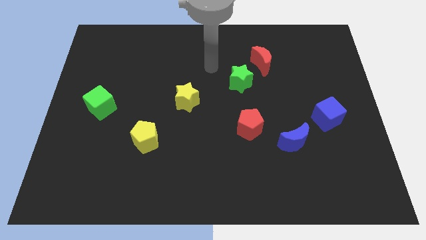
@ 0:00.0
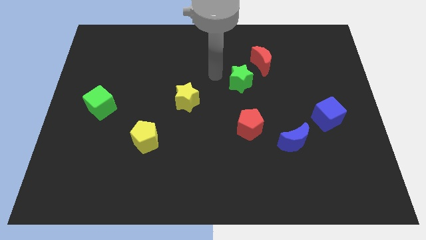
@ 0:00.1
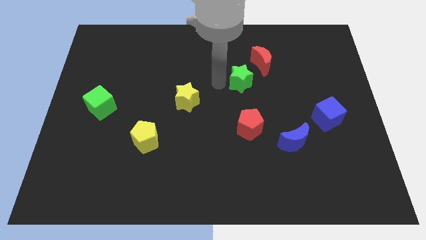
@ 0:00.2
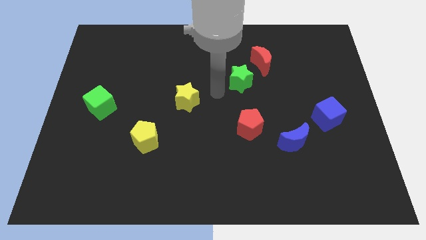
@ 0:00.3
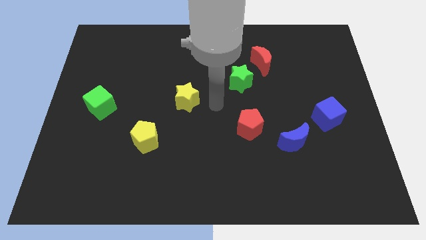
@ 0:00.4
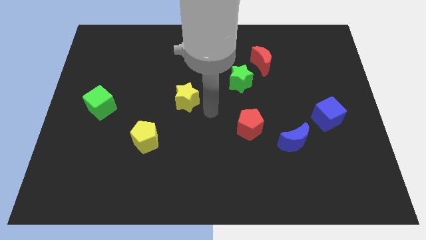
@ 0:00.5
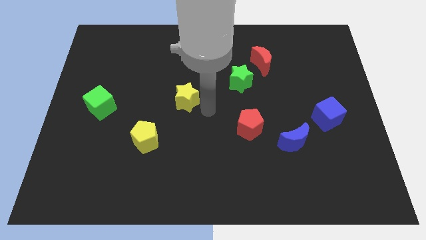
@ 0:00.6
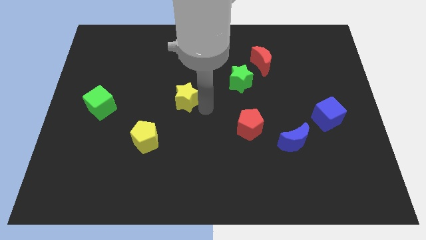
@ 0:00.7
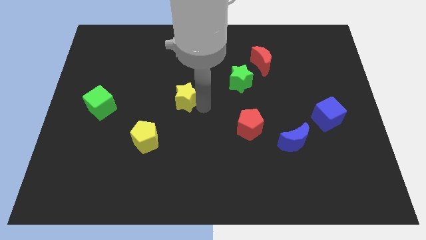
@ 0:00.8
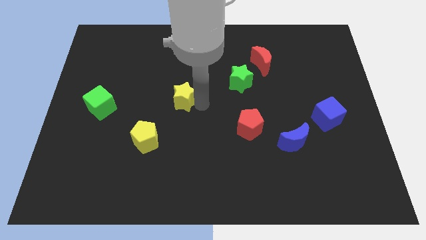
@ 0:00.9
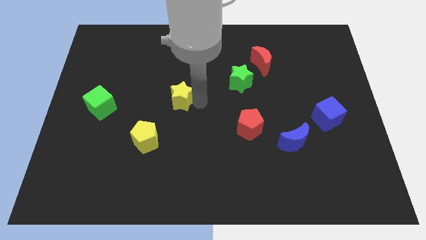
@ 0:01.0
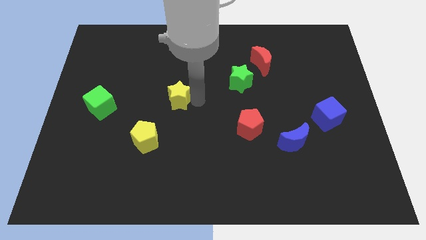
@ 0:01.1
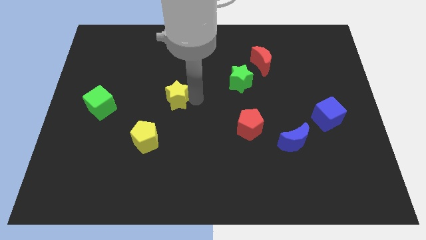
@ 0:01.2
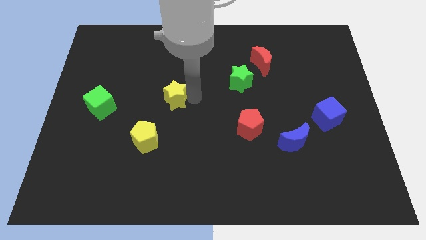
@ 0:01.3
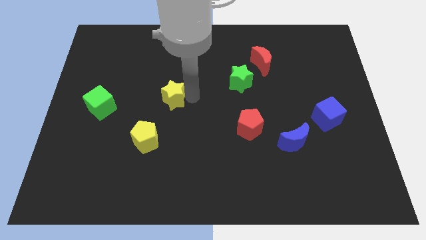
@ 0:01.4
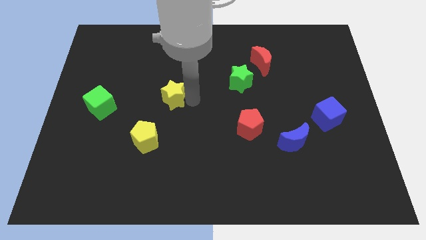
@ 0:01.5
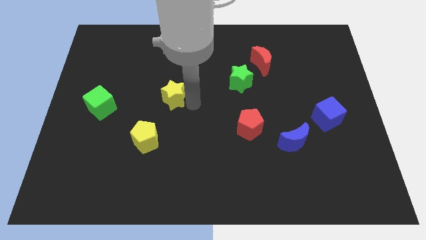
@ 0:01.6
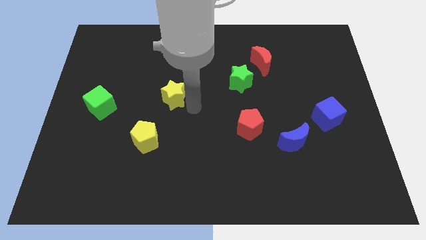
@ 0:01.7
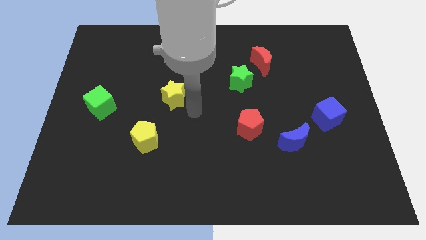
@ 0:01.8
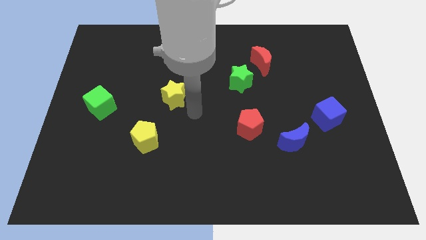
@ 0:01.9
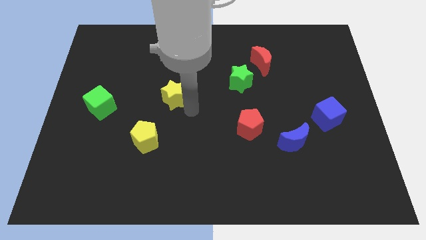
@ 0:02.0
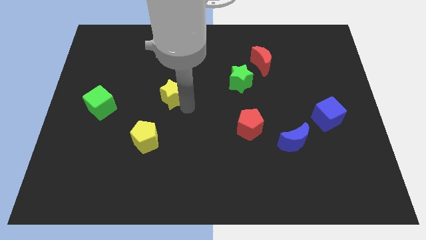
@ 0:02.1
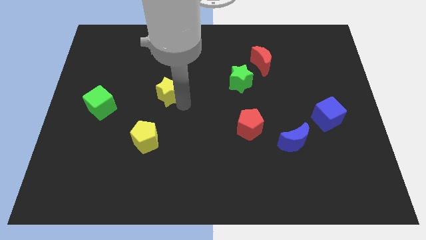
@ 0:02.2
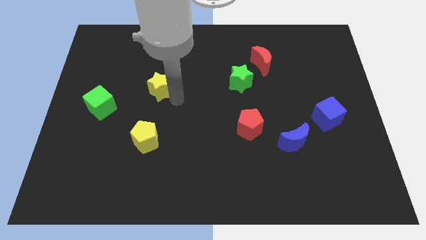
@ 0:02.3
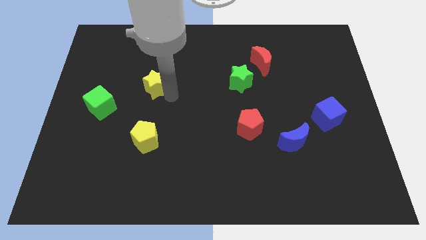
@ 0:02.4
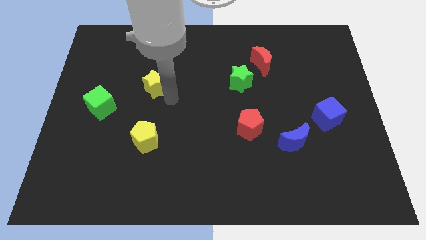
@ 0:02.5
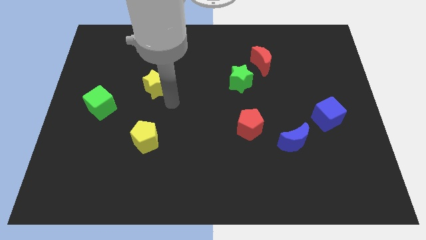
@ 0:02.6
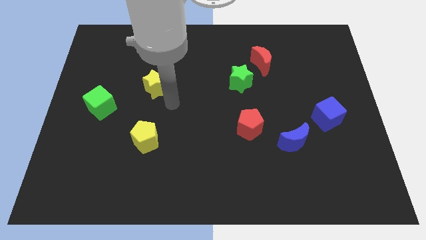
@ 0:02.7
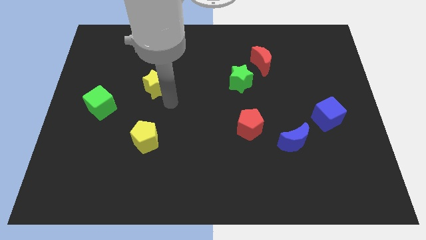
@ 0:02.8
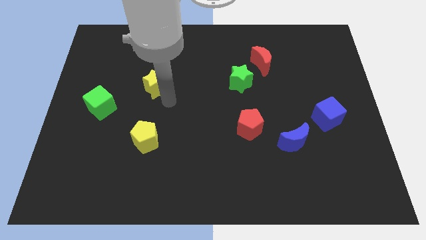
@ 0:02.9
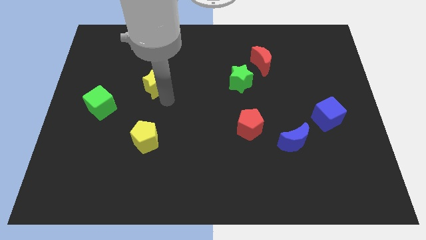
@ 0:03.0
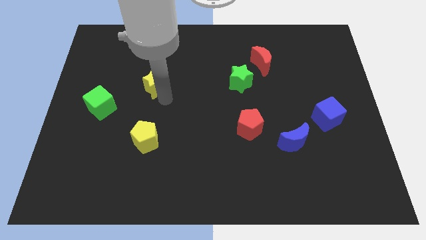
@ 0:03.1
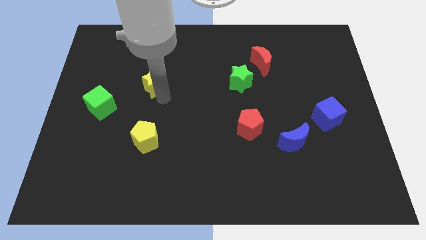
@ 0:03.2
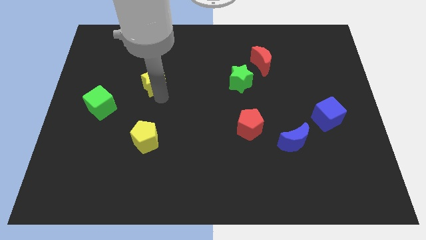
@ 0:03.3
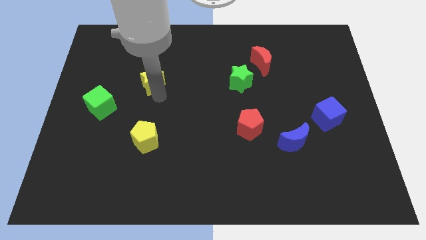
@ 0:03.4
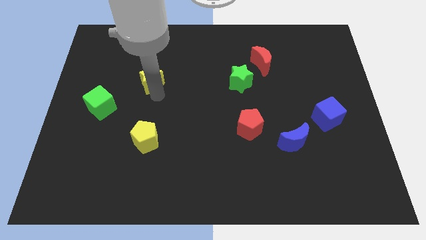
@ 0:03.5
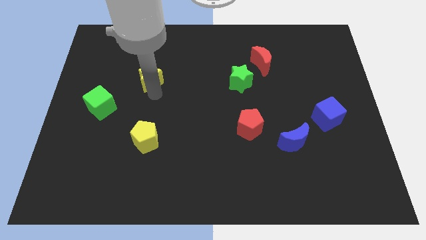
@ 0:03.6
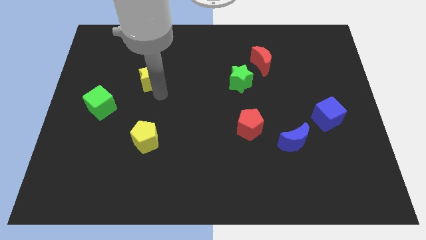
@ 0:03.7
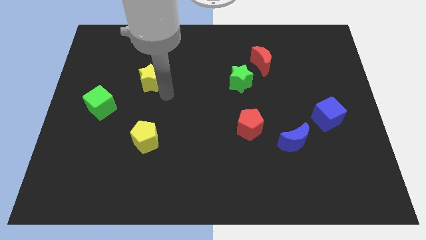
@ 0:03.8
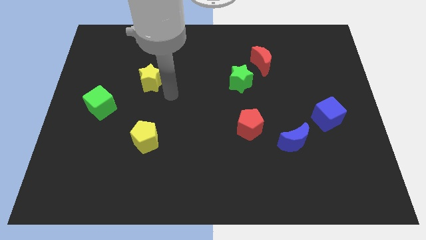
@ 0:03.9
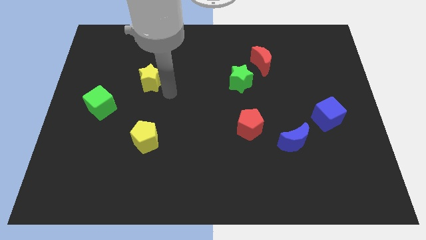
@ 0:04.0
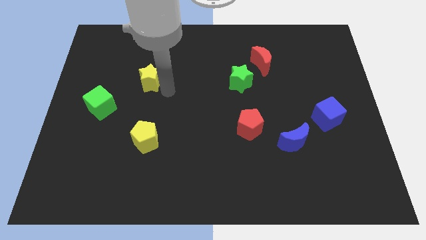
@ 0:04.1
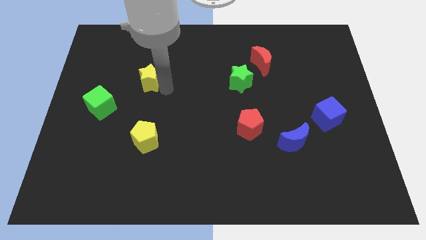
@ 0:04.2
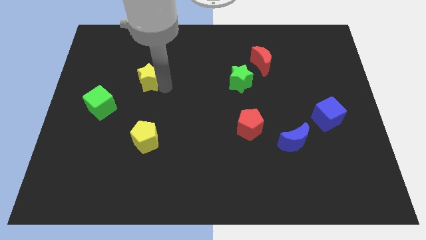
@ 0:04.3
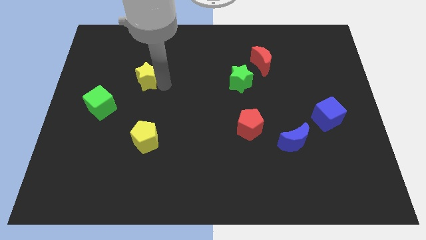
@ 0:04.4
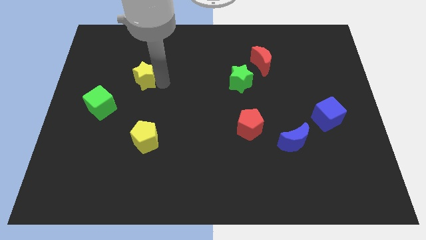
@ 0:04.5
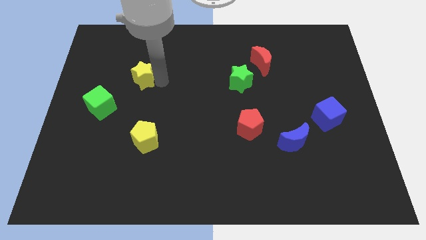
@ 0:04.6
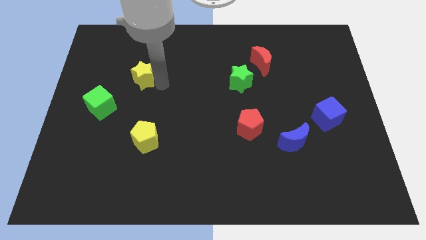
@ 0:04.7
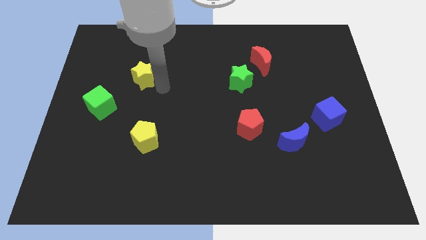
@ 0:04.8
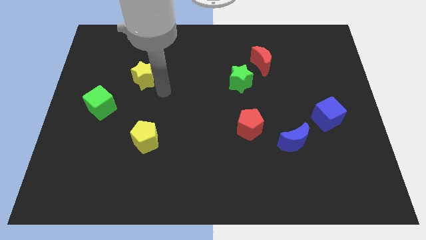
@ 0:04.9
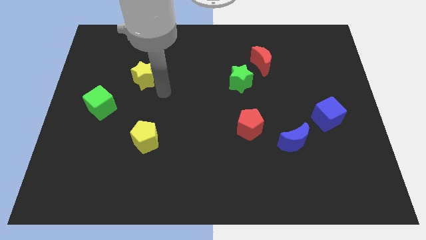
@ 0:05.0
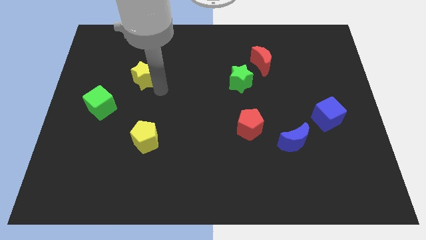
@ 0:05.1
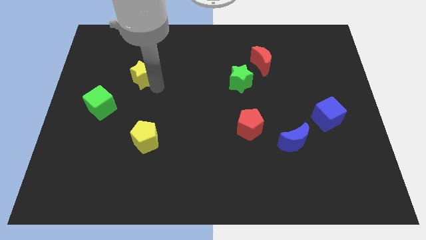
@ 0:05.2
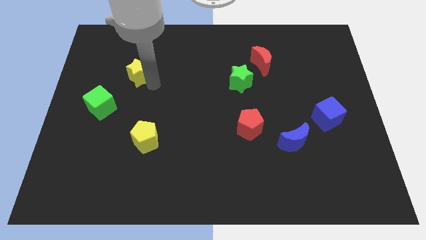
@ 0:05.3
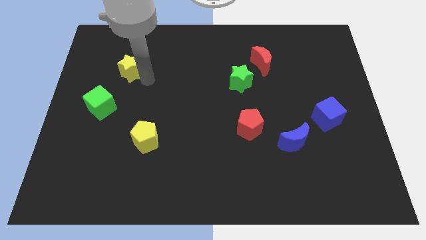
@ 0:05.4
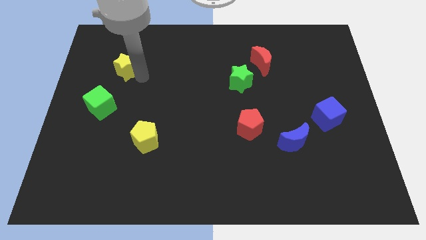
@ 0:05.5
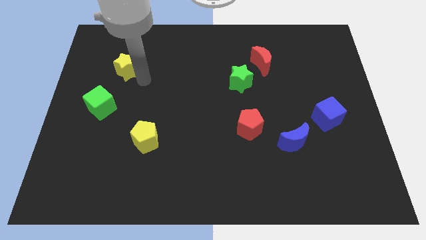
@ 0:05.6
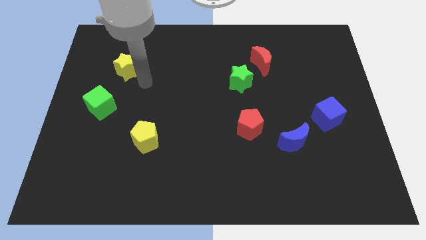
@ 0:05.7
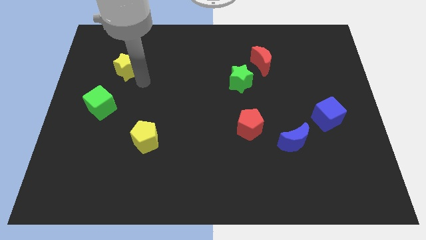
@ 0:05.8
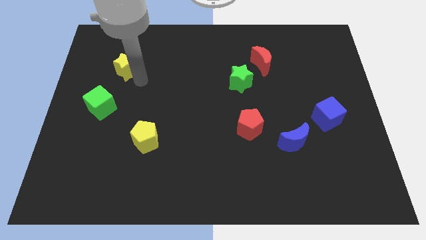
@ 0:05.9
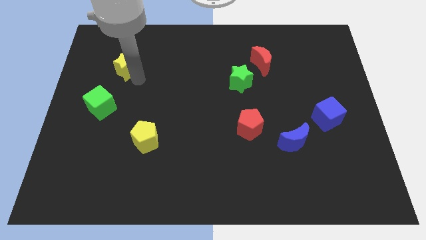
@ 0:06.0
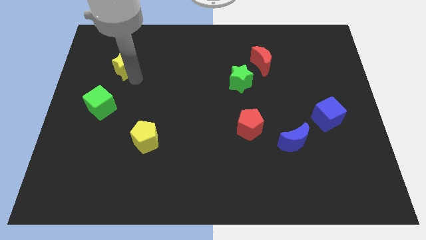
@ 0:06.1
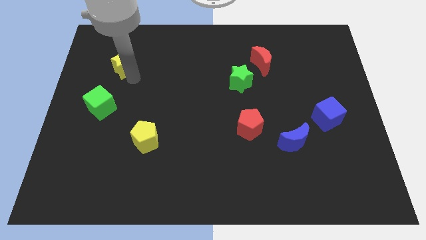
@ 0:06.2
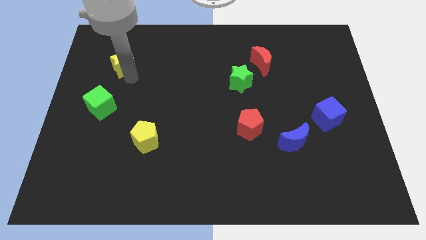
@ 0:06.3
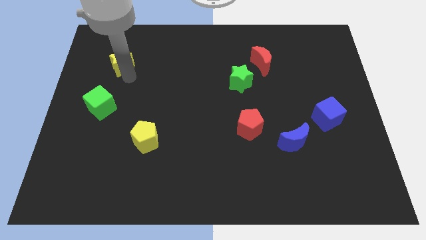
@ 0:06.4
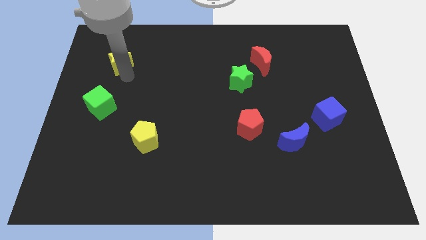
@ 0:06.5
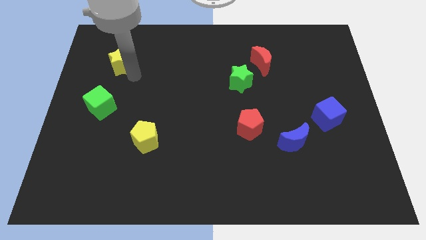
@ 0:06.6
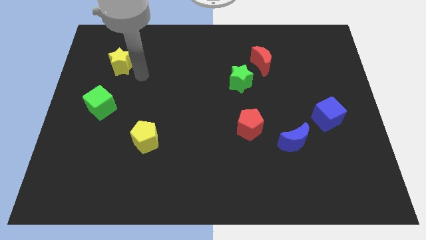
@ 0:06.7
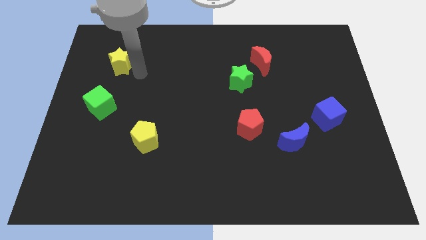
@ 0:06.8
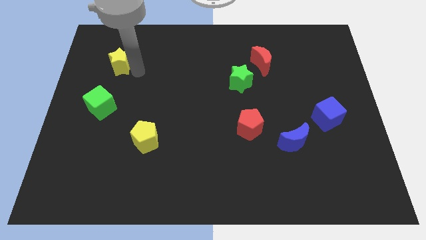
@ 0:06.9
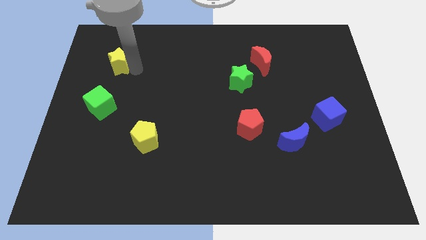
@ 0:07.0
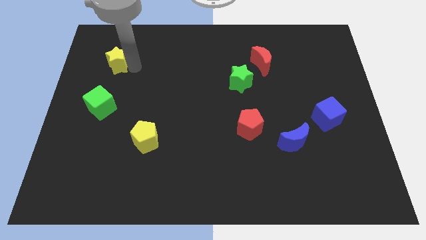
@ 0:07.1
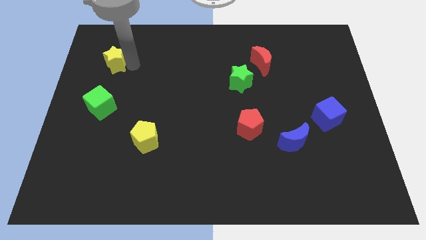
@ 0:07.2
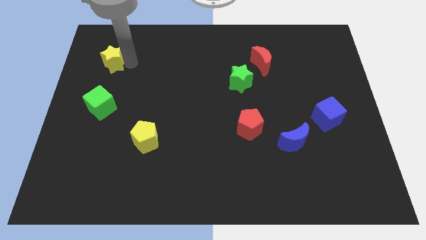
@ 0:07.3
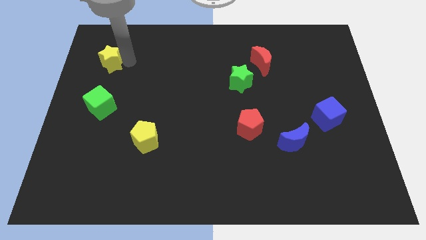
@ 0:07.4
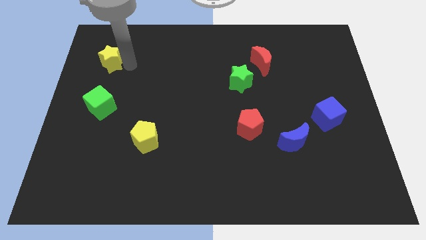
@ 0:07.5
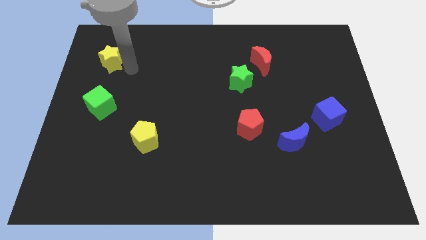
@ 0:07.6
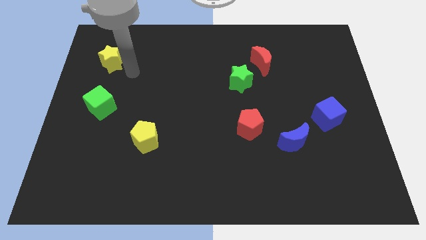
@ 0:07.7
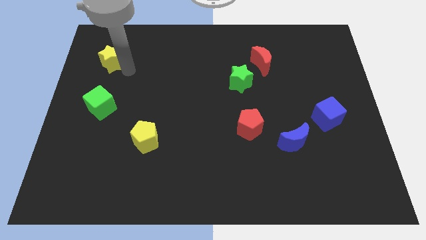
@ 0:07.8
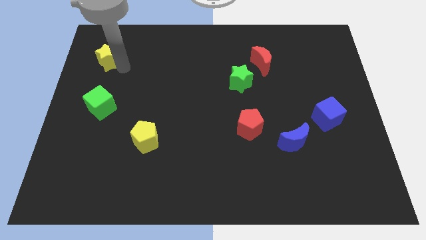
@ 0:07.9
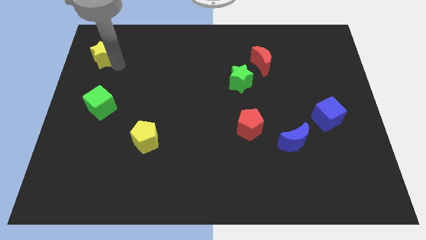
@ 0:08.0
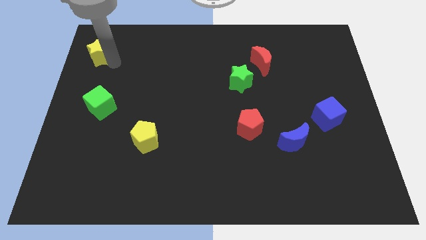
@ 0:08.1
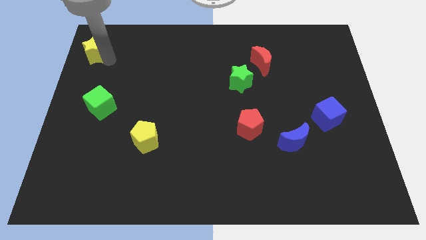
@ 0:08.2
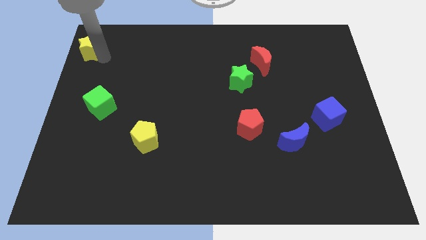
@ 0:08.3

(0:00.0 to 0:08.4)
push the yellow star to the top left of the board

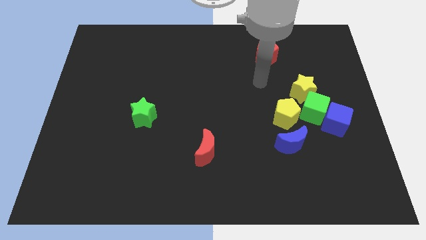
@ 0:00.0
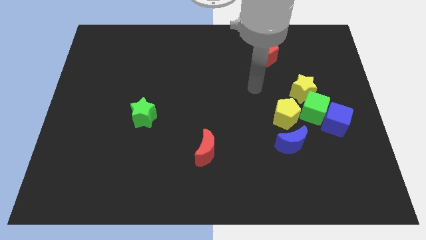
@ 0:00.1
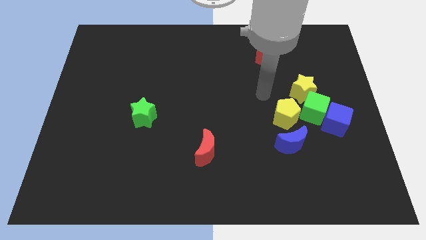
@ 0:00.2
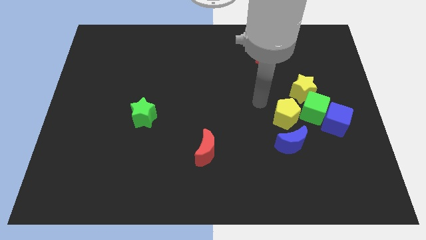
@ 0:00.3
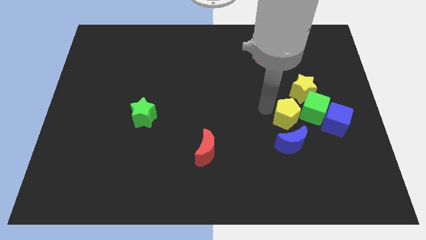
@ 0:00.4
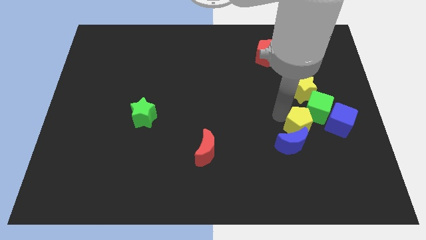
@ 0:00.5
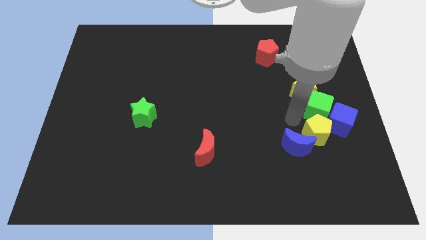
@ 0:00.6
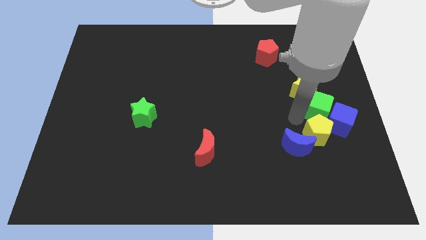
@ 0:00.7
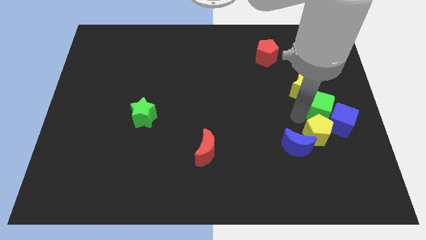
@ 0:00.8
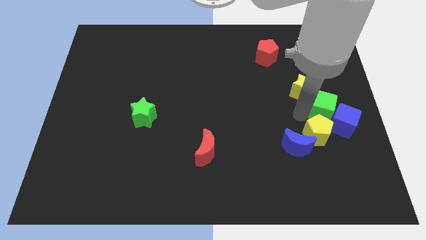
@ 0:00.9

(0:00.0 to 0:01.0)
move the green cube to the center right
